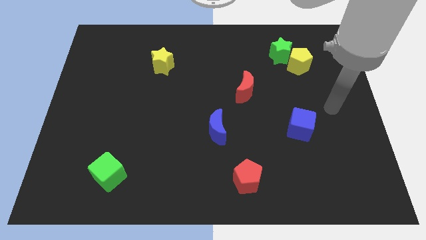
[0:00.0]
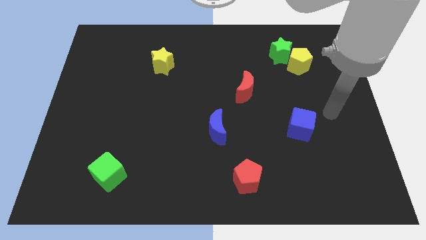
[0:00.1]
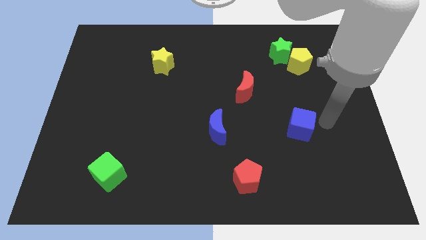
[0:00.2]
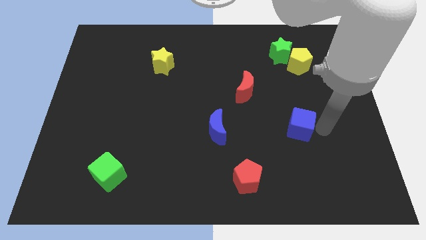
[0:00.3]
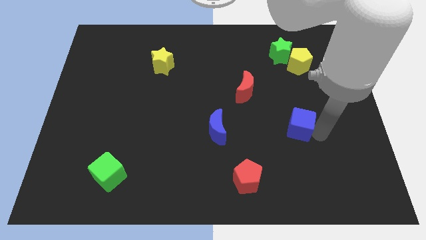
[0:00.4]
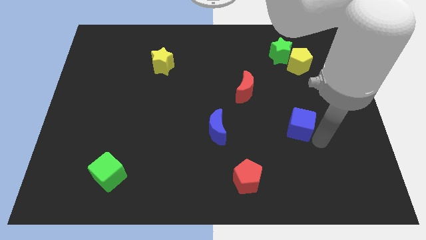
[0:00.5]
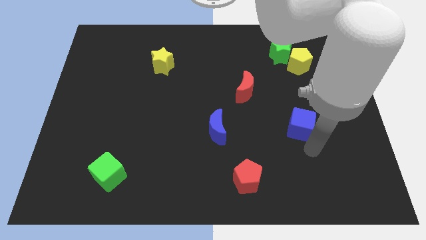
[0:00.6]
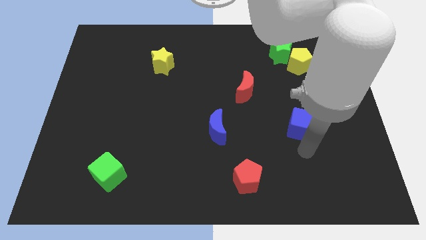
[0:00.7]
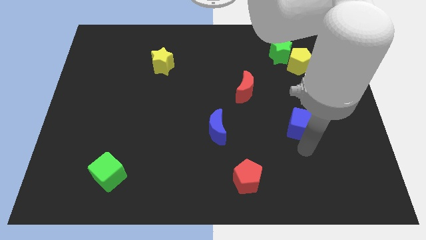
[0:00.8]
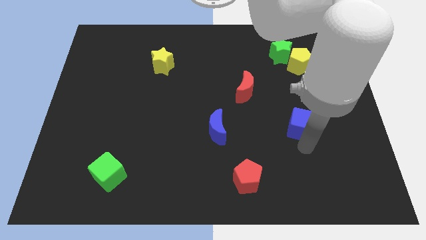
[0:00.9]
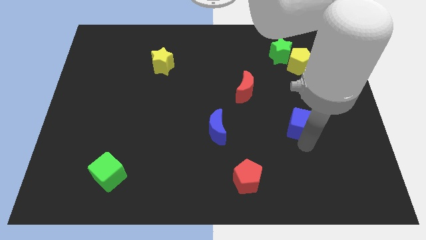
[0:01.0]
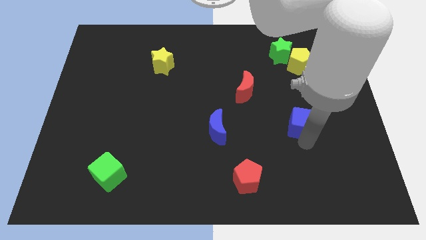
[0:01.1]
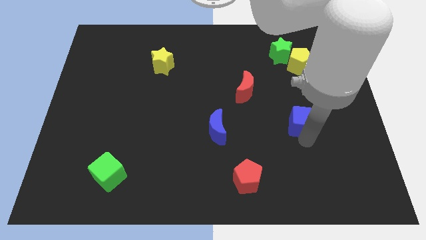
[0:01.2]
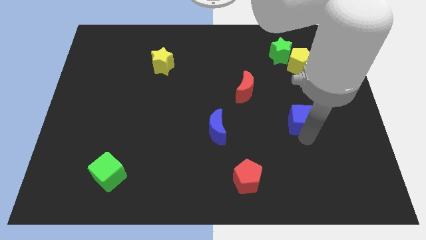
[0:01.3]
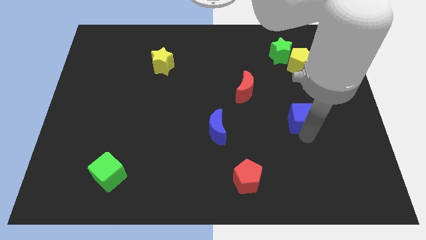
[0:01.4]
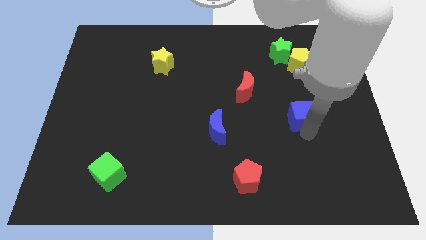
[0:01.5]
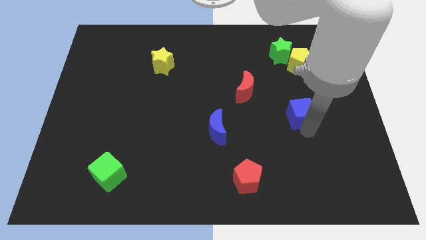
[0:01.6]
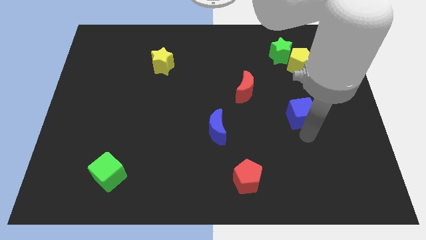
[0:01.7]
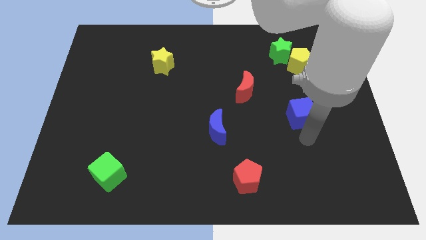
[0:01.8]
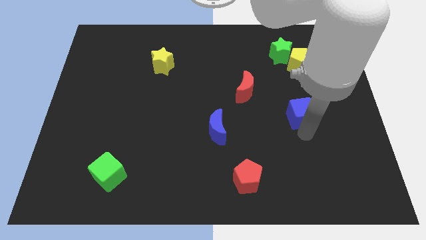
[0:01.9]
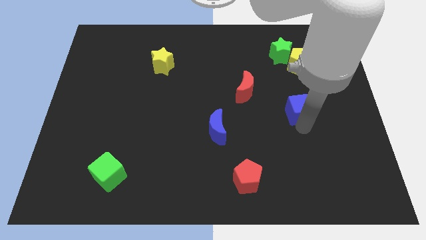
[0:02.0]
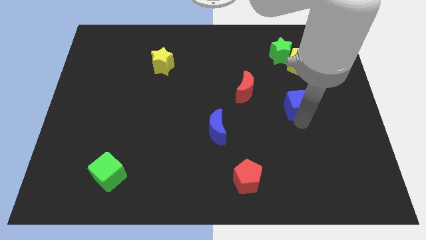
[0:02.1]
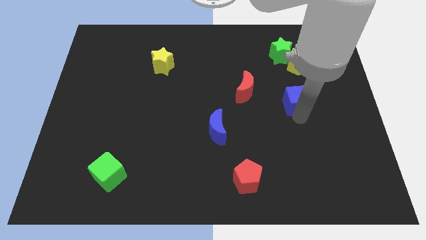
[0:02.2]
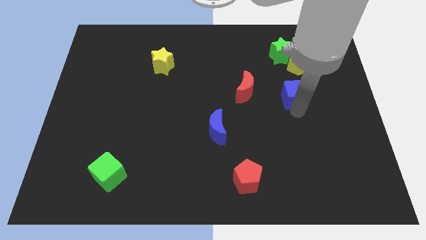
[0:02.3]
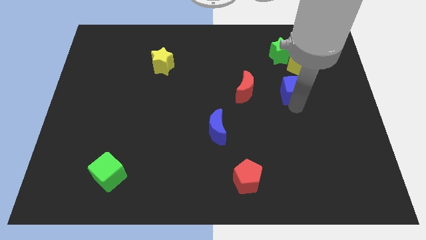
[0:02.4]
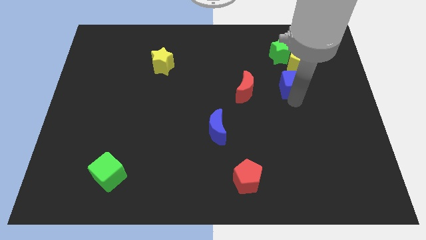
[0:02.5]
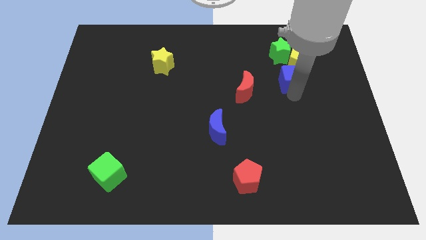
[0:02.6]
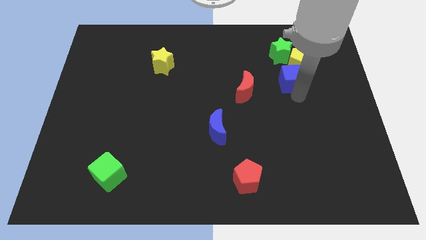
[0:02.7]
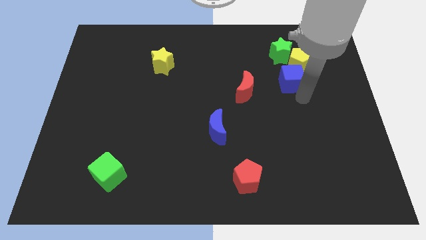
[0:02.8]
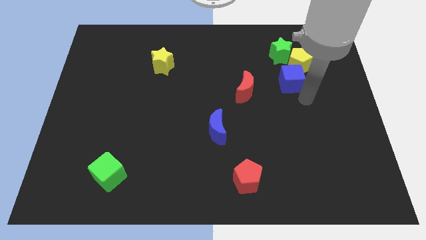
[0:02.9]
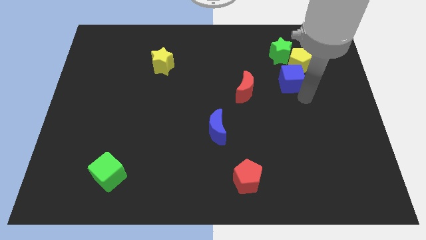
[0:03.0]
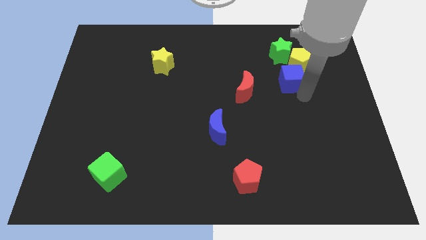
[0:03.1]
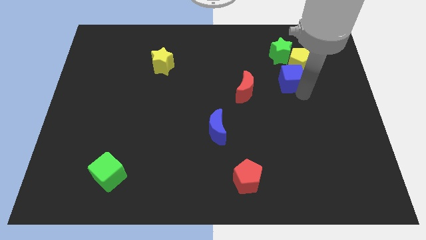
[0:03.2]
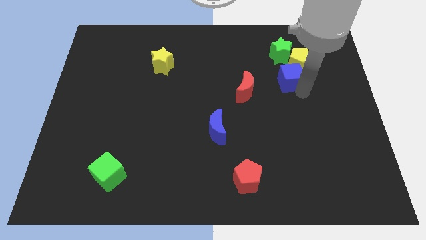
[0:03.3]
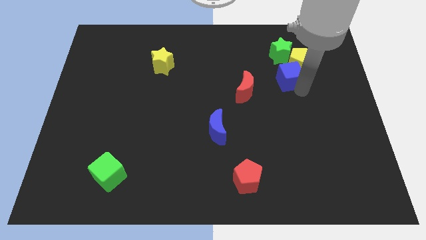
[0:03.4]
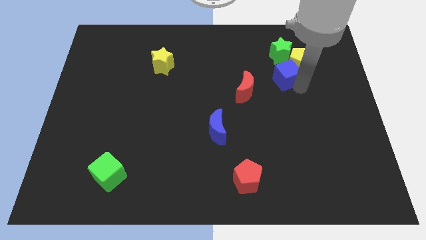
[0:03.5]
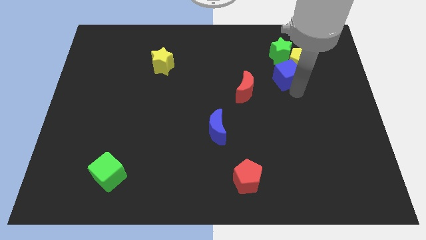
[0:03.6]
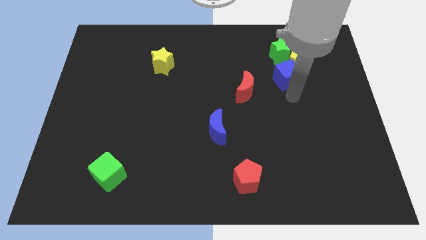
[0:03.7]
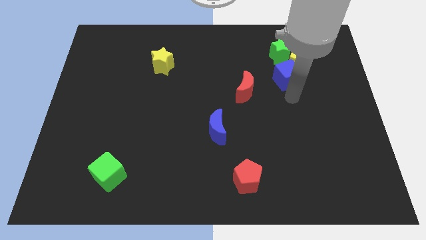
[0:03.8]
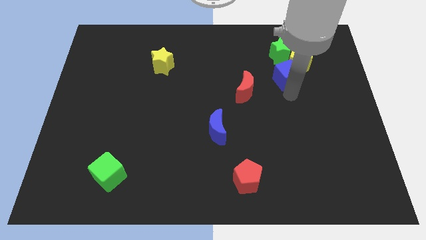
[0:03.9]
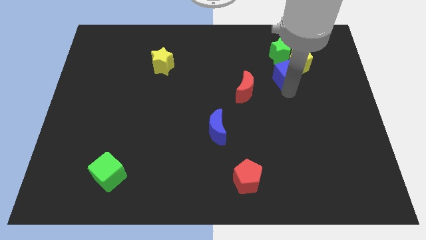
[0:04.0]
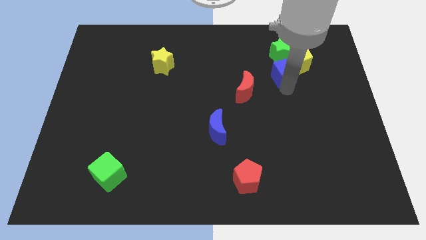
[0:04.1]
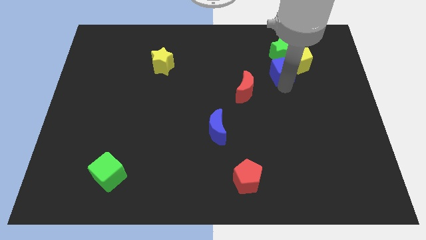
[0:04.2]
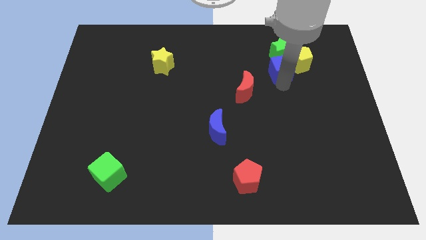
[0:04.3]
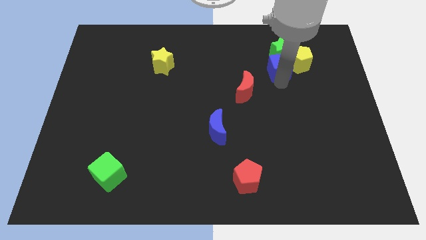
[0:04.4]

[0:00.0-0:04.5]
move the blue cube close to the green star

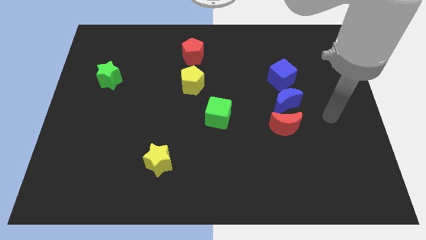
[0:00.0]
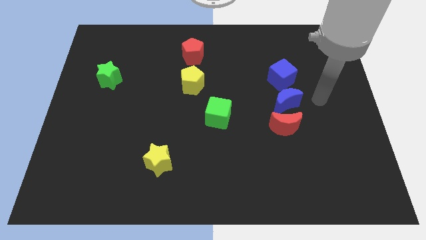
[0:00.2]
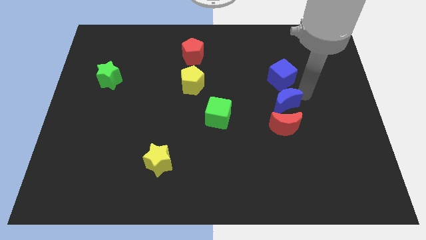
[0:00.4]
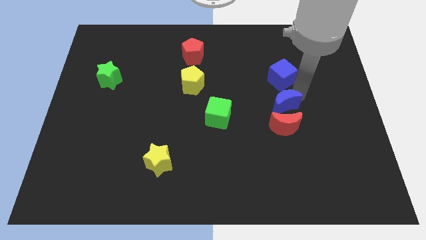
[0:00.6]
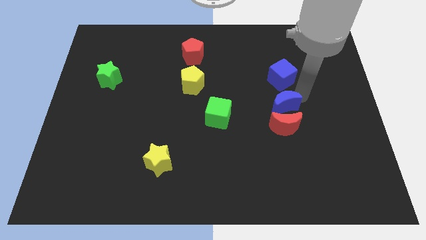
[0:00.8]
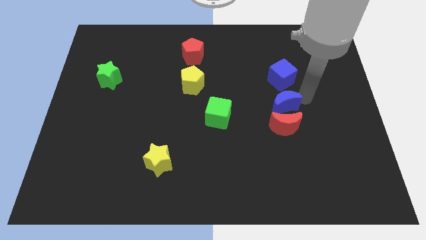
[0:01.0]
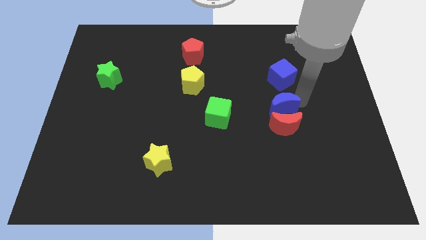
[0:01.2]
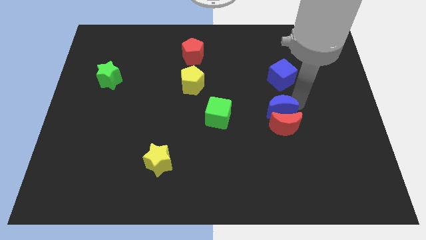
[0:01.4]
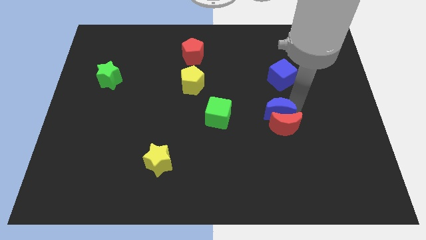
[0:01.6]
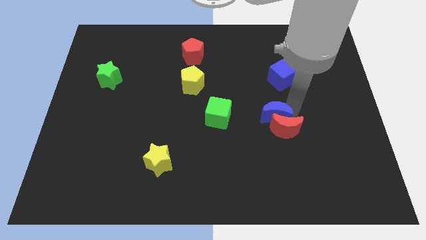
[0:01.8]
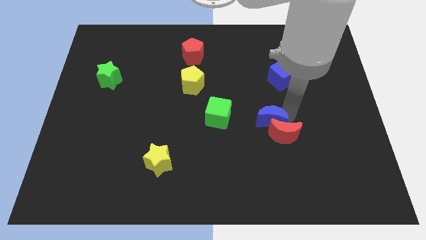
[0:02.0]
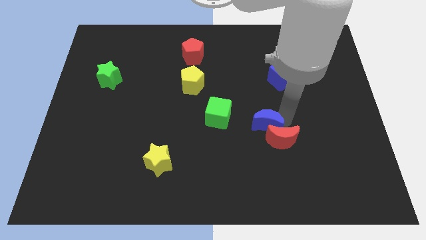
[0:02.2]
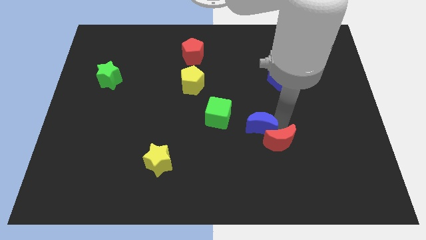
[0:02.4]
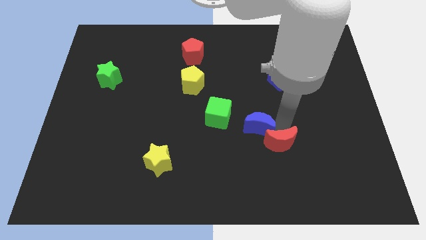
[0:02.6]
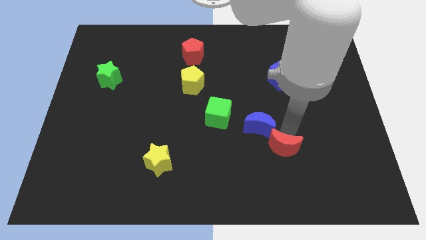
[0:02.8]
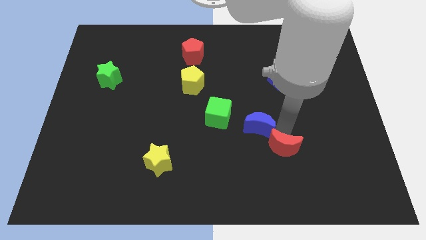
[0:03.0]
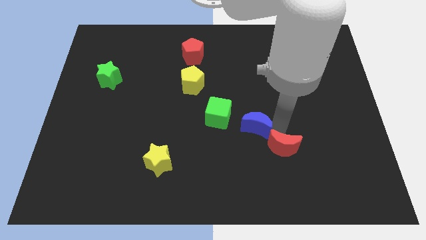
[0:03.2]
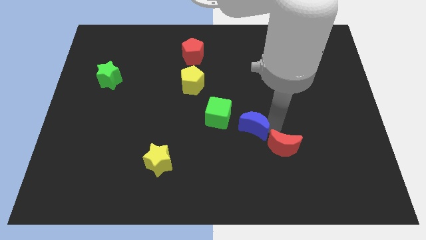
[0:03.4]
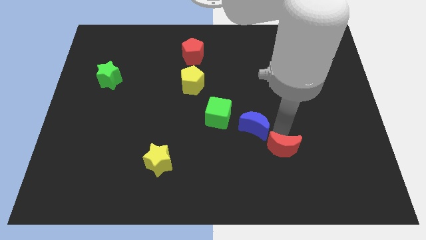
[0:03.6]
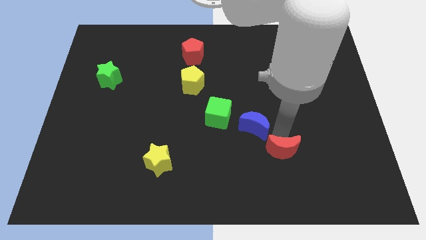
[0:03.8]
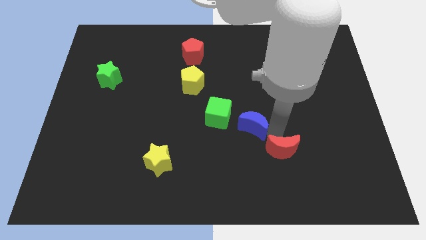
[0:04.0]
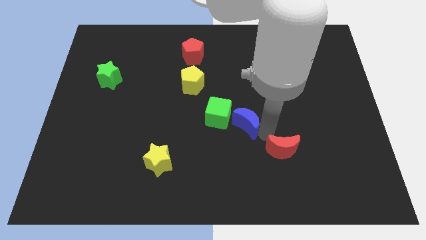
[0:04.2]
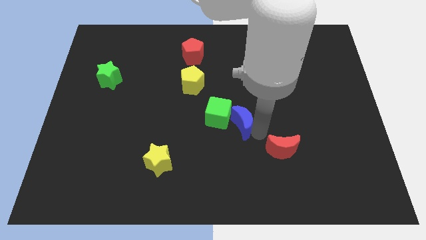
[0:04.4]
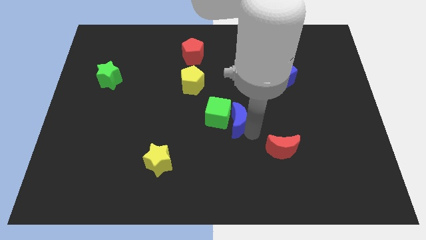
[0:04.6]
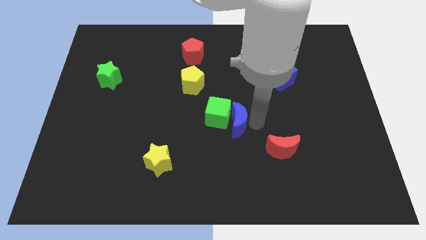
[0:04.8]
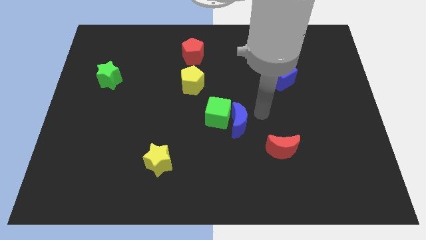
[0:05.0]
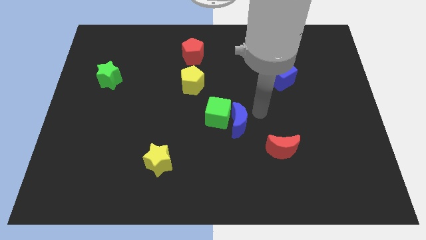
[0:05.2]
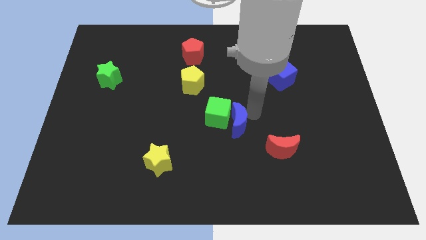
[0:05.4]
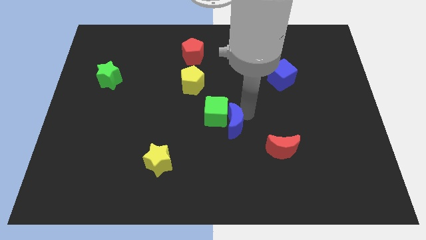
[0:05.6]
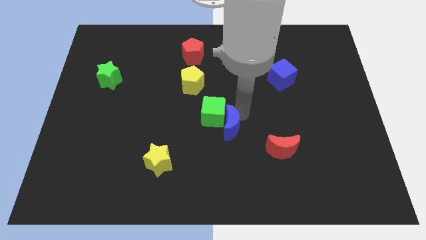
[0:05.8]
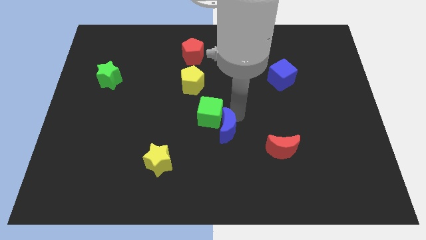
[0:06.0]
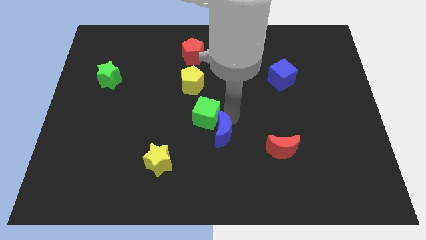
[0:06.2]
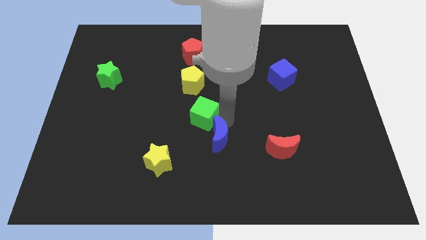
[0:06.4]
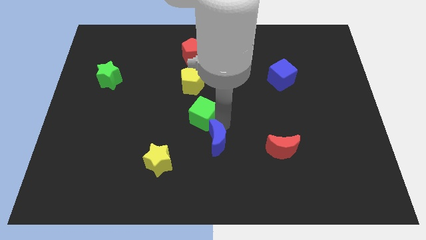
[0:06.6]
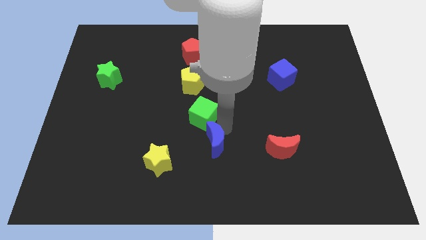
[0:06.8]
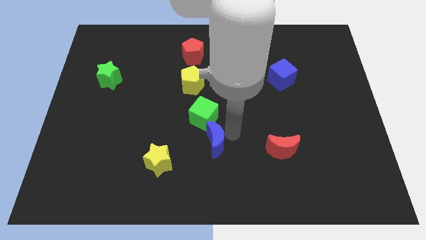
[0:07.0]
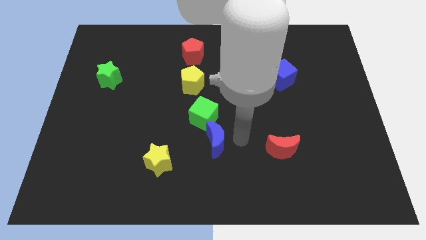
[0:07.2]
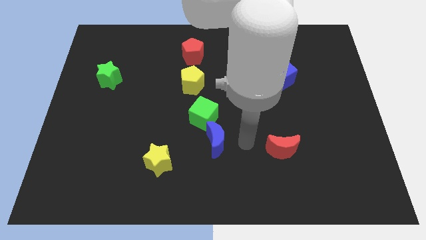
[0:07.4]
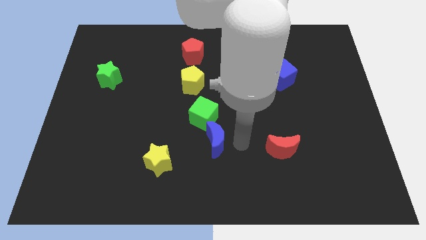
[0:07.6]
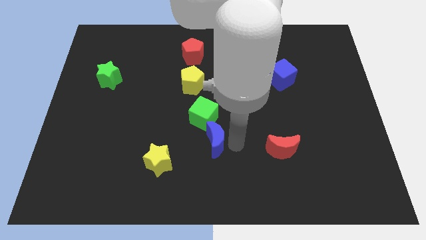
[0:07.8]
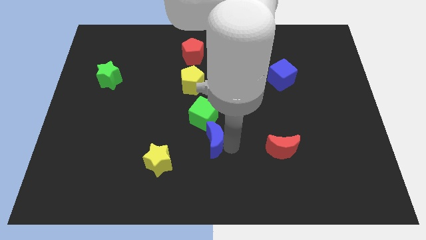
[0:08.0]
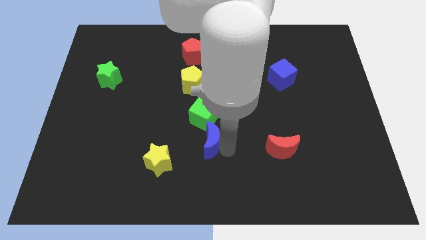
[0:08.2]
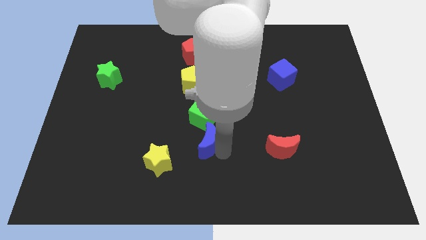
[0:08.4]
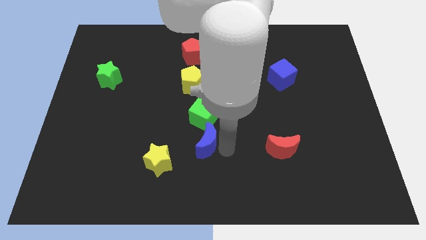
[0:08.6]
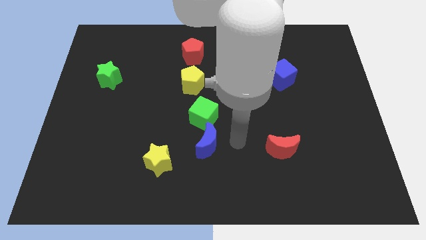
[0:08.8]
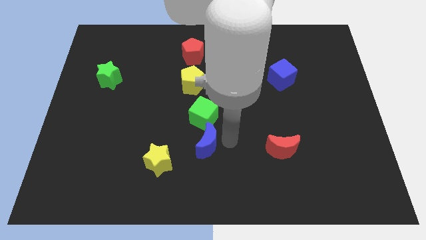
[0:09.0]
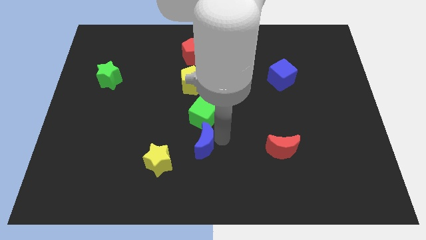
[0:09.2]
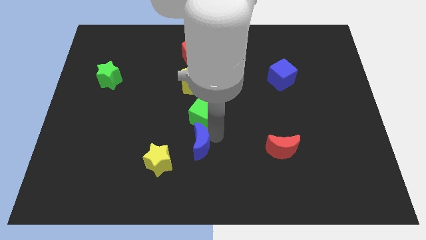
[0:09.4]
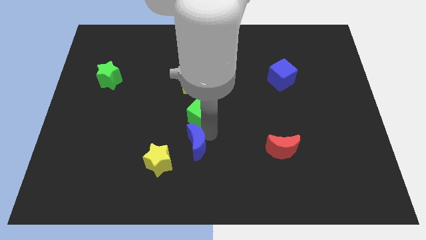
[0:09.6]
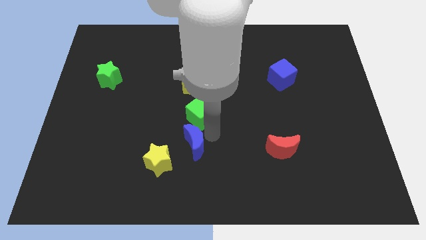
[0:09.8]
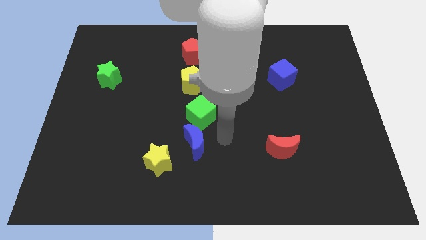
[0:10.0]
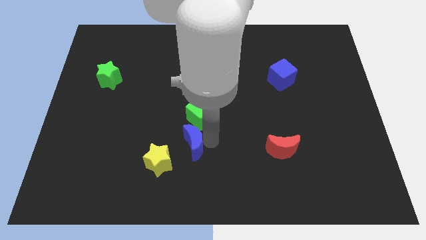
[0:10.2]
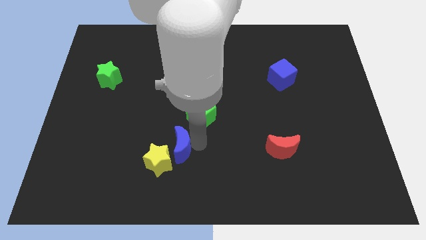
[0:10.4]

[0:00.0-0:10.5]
push the blue moon next to the yellow star
